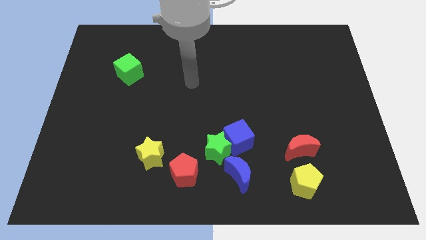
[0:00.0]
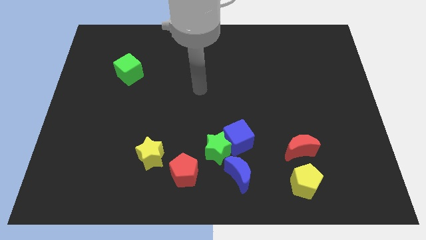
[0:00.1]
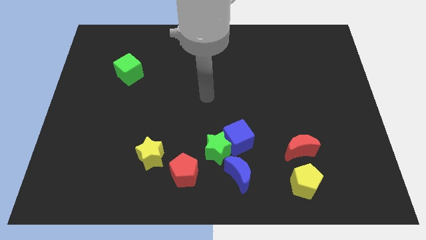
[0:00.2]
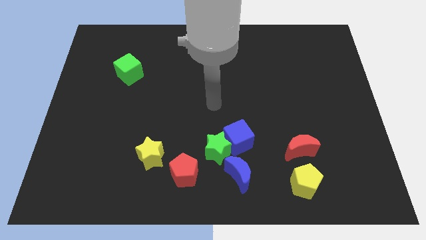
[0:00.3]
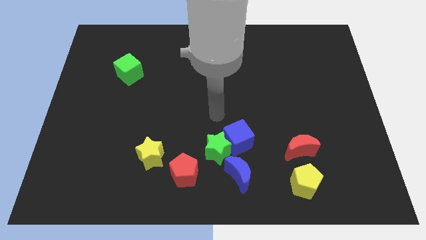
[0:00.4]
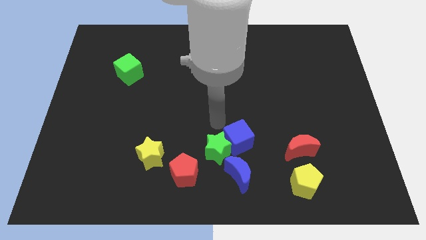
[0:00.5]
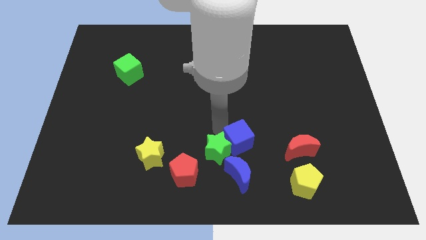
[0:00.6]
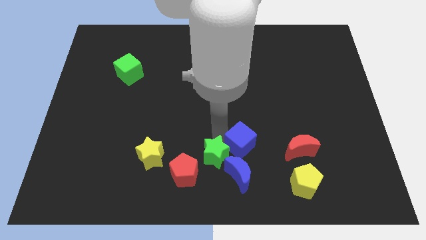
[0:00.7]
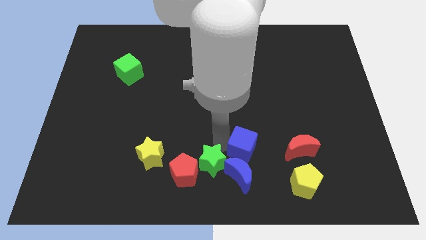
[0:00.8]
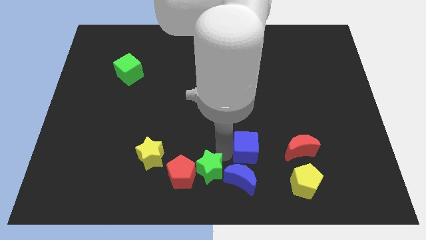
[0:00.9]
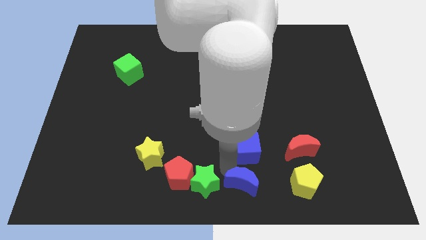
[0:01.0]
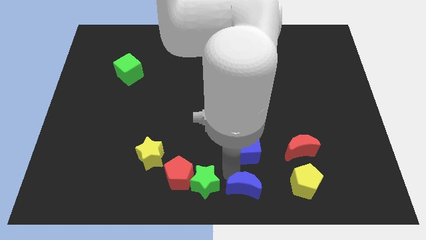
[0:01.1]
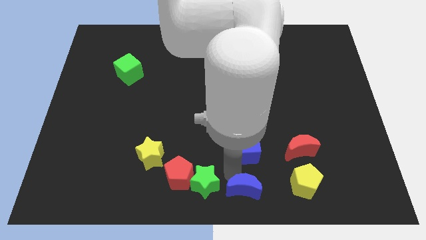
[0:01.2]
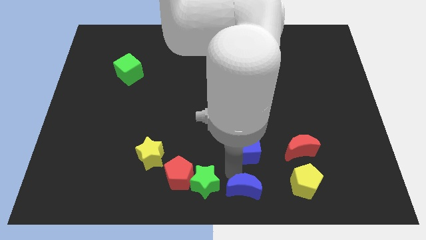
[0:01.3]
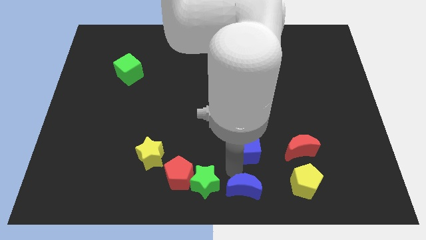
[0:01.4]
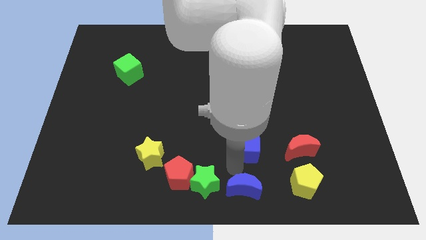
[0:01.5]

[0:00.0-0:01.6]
move the blue cube away from the green star and blue moon

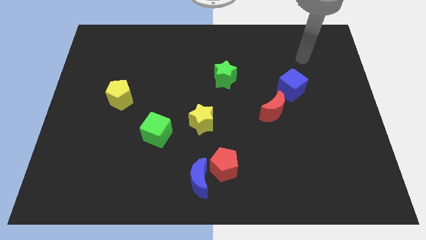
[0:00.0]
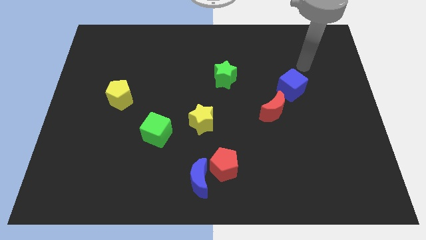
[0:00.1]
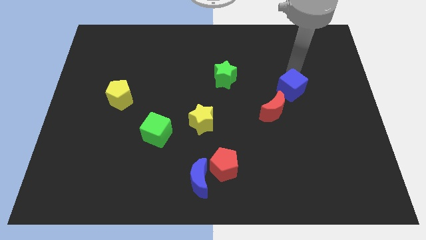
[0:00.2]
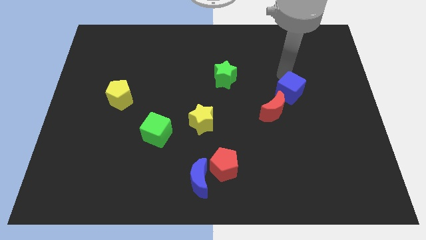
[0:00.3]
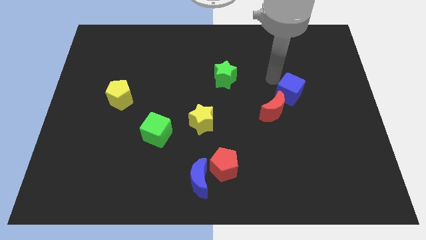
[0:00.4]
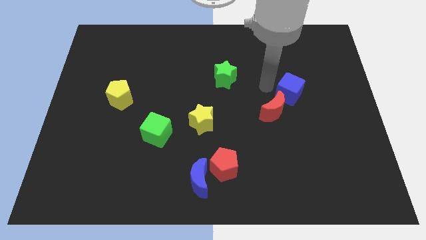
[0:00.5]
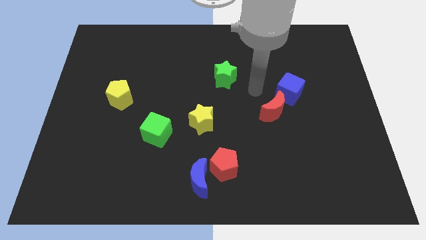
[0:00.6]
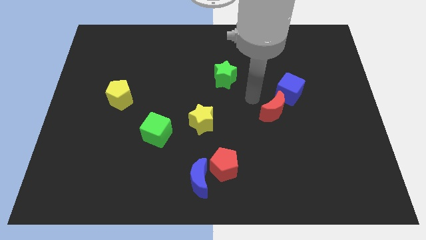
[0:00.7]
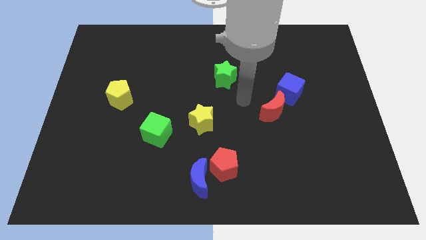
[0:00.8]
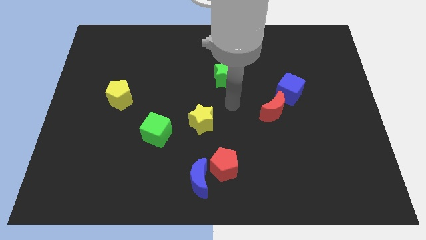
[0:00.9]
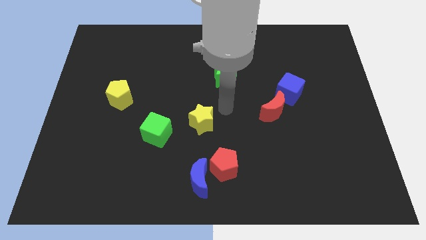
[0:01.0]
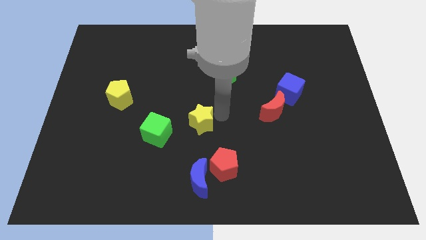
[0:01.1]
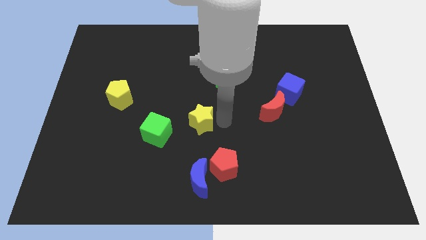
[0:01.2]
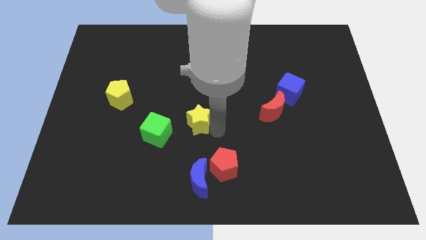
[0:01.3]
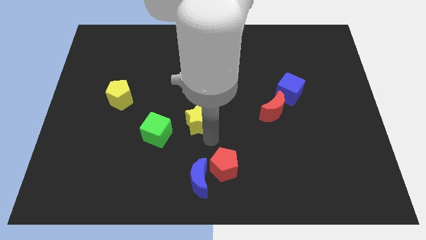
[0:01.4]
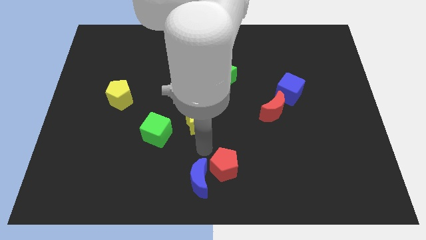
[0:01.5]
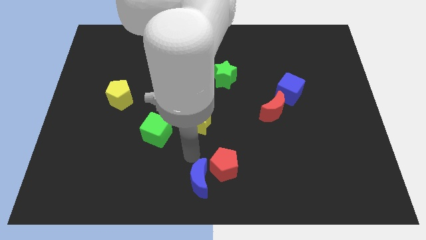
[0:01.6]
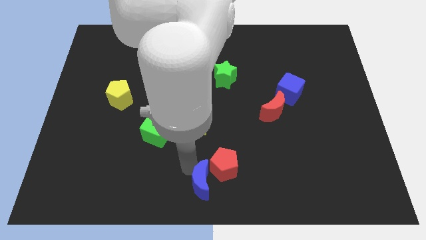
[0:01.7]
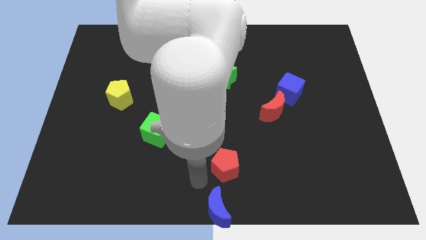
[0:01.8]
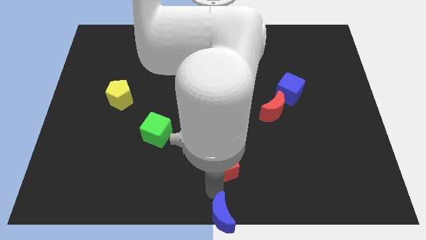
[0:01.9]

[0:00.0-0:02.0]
separate the red pentagon from the blue moon

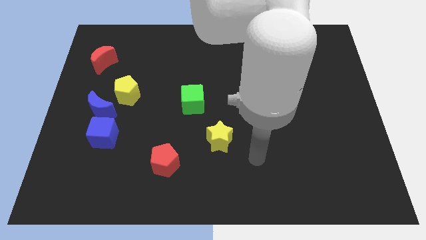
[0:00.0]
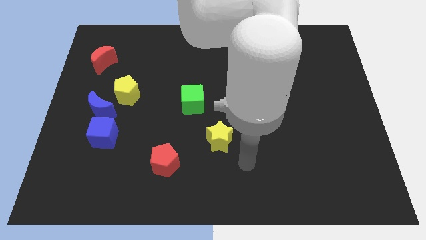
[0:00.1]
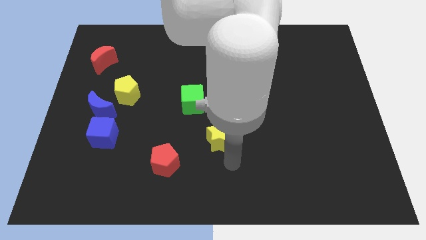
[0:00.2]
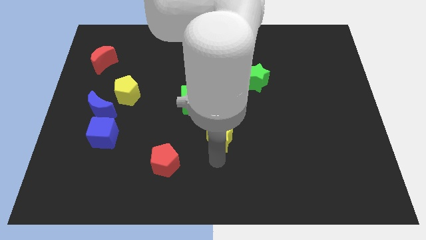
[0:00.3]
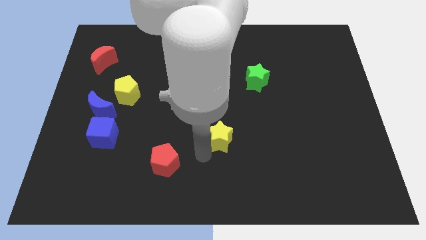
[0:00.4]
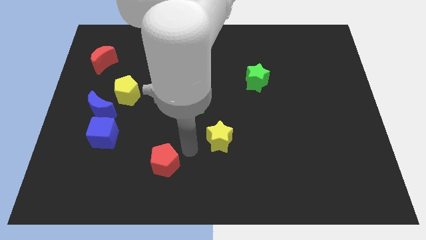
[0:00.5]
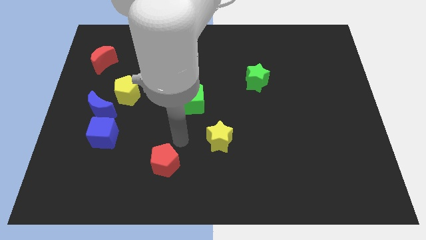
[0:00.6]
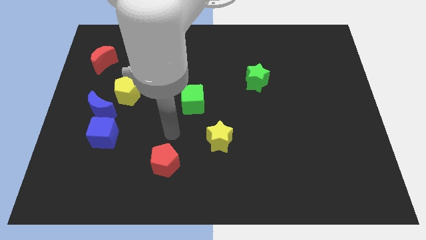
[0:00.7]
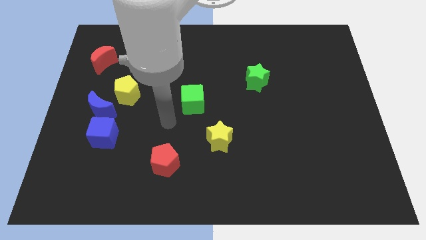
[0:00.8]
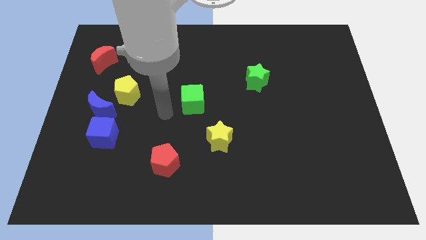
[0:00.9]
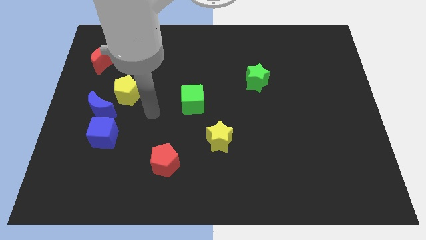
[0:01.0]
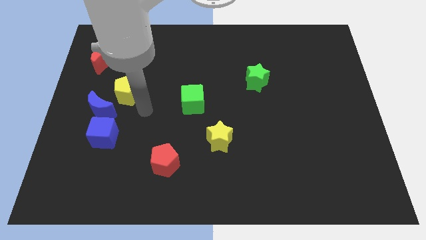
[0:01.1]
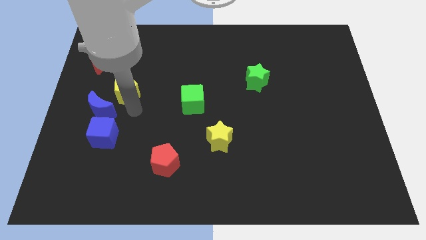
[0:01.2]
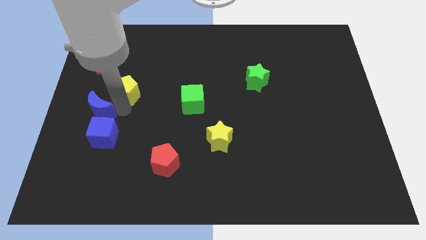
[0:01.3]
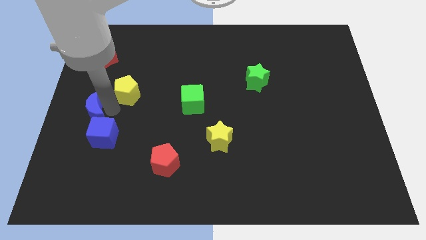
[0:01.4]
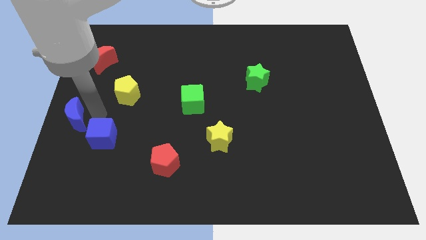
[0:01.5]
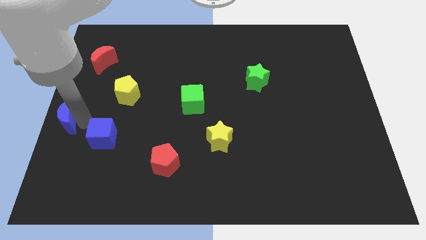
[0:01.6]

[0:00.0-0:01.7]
pull the blue cube apart from the blue moon

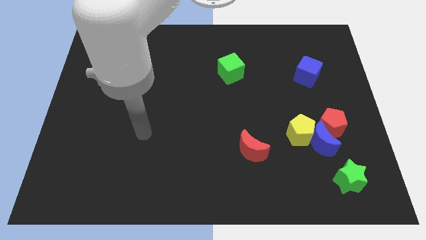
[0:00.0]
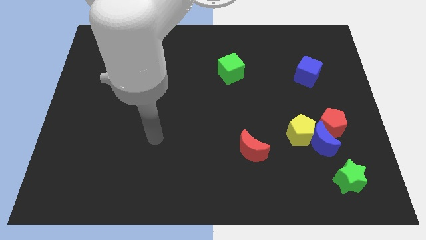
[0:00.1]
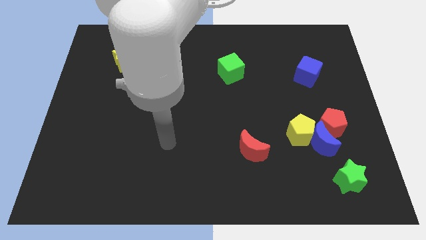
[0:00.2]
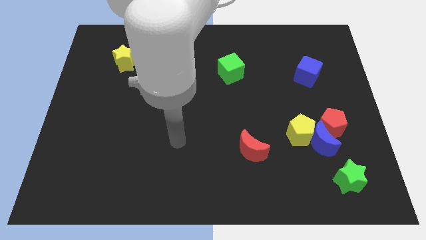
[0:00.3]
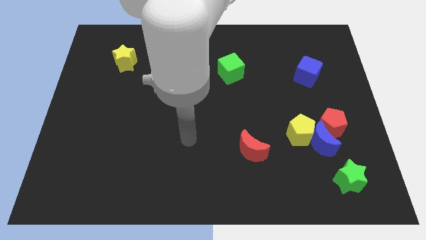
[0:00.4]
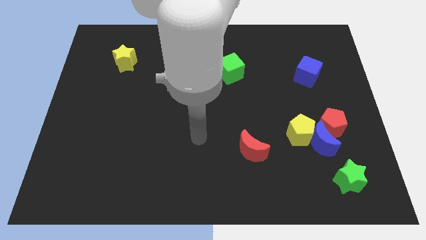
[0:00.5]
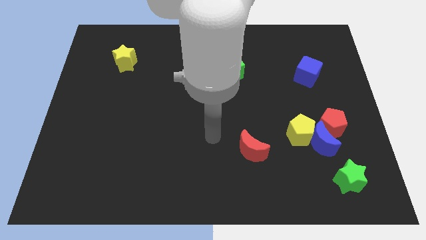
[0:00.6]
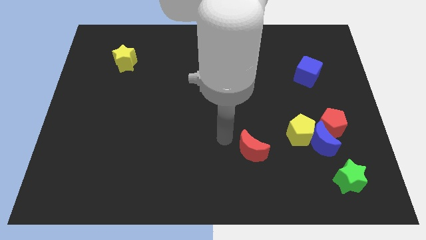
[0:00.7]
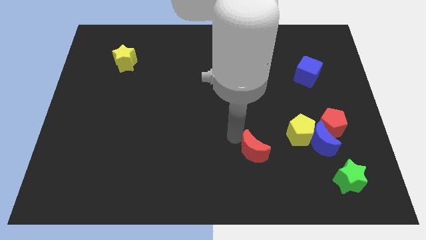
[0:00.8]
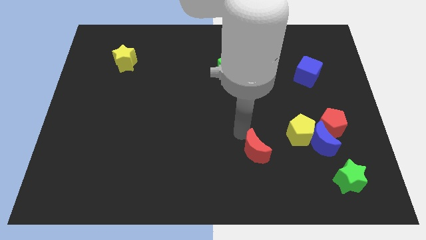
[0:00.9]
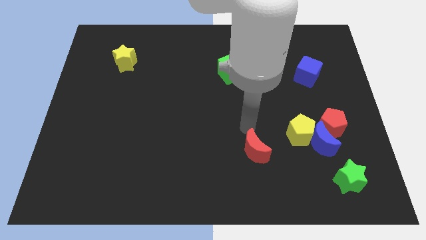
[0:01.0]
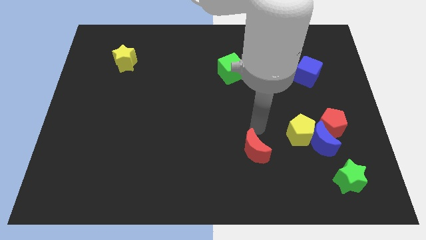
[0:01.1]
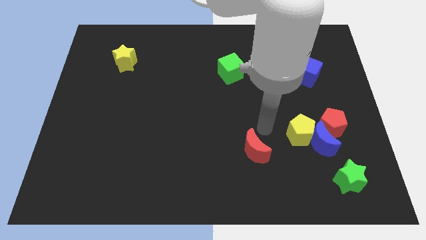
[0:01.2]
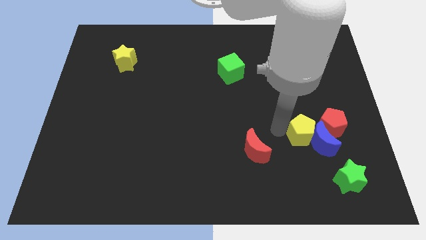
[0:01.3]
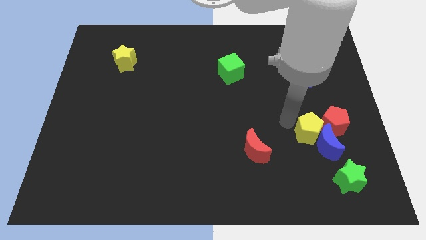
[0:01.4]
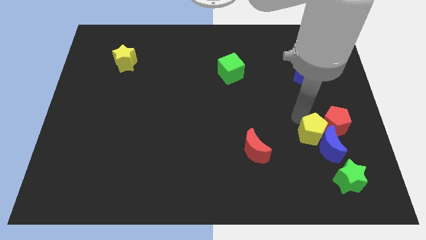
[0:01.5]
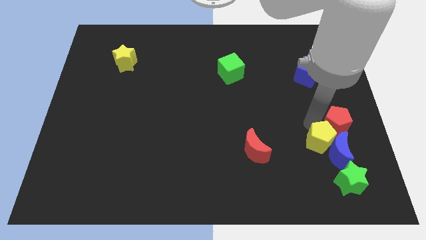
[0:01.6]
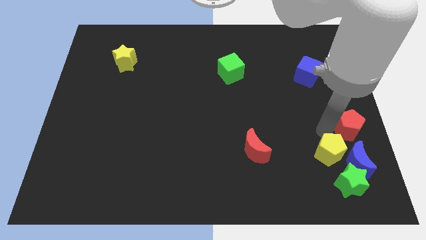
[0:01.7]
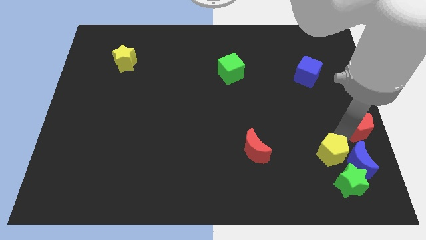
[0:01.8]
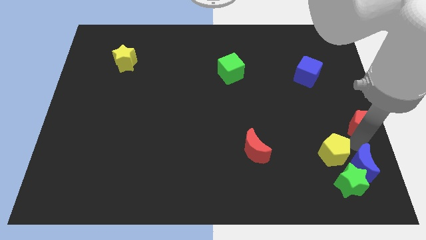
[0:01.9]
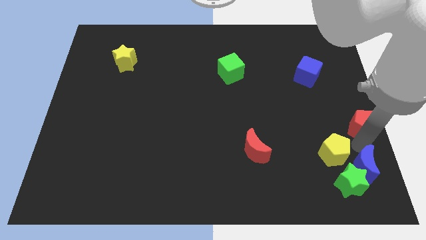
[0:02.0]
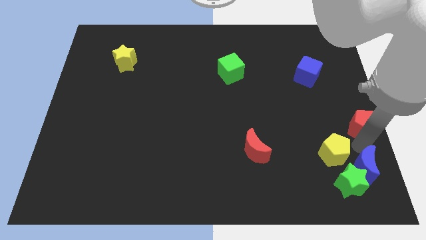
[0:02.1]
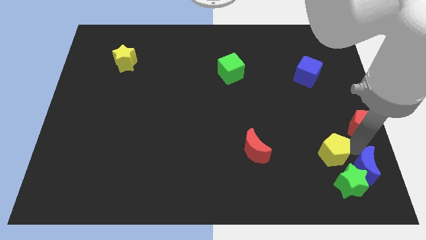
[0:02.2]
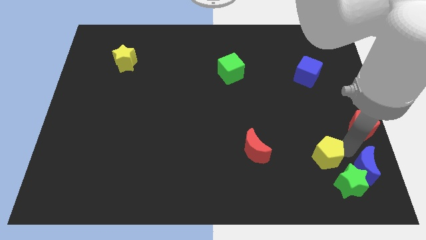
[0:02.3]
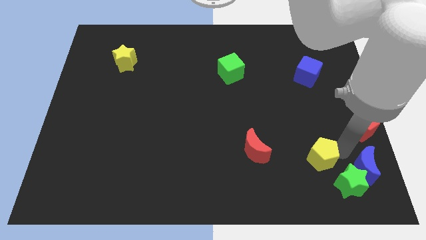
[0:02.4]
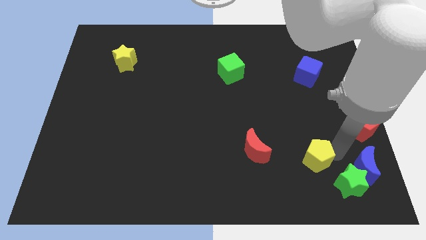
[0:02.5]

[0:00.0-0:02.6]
separate the yellow pentagon from the blue moon and red pentagon

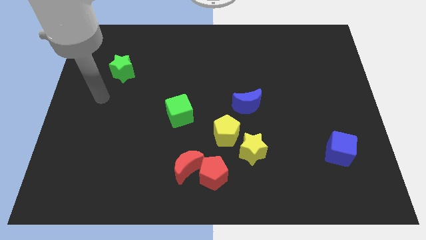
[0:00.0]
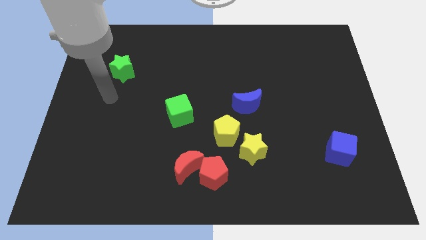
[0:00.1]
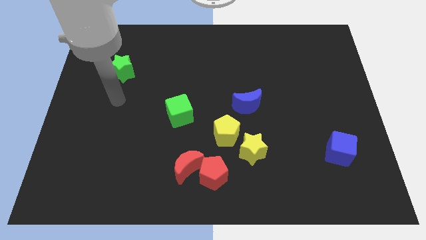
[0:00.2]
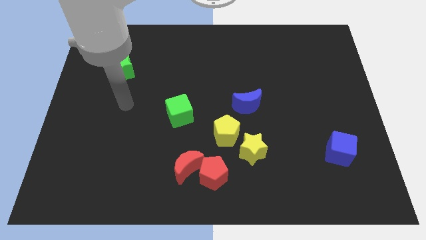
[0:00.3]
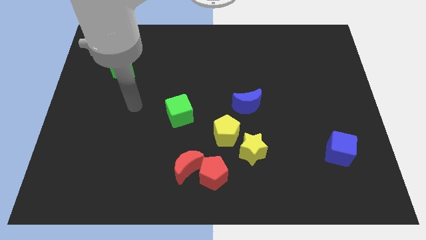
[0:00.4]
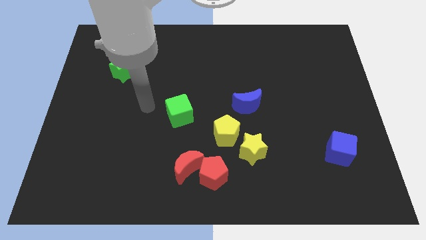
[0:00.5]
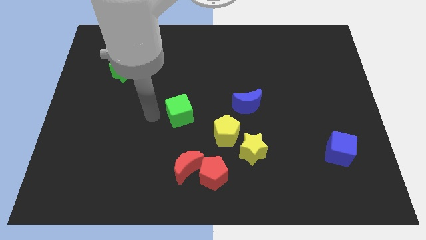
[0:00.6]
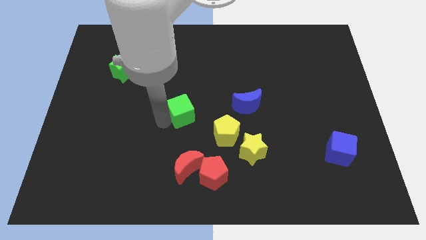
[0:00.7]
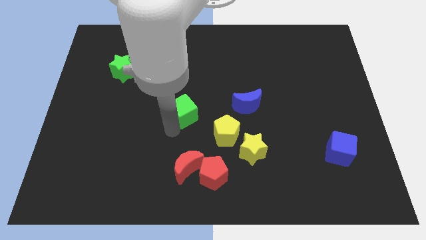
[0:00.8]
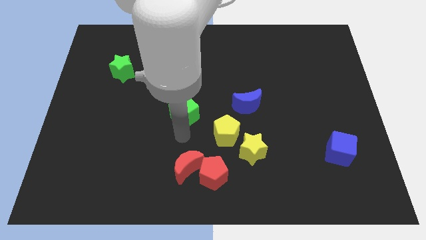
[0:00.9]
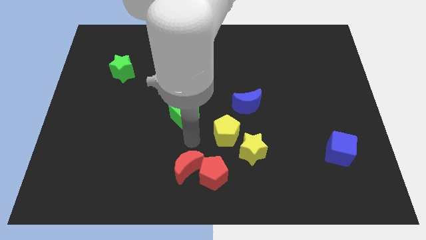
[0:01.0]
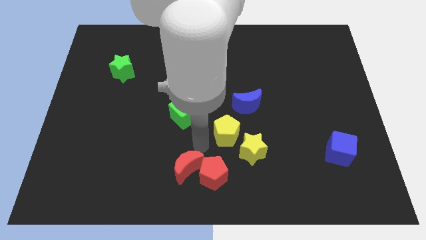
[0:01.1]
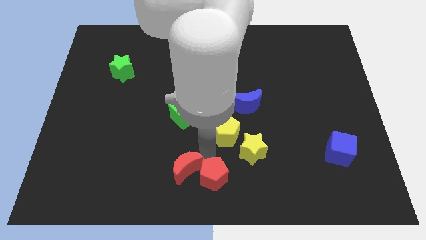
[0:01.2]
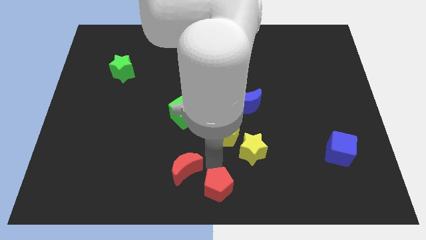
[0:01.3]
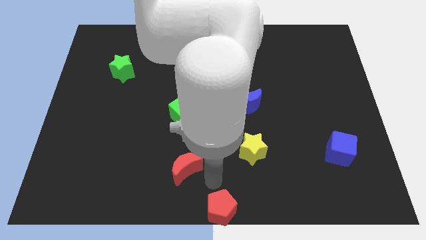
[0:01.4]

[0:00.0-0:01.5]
pull the red moon apart from the red pentagon
